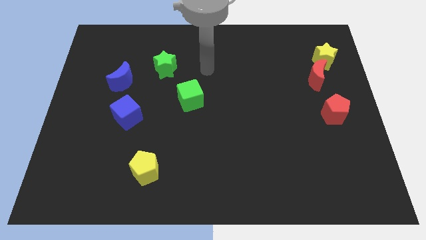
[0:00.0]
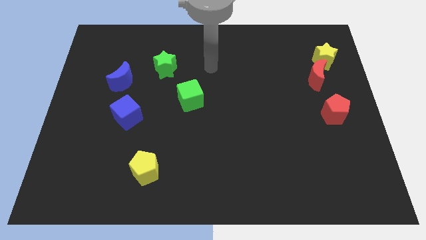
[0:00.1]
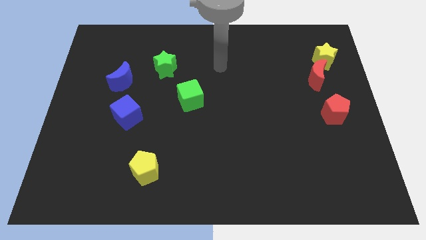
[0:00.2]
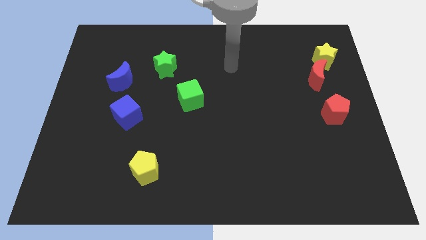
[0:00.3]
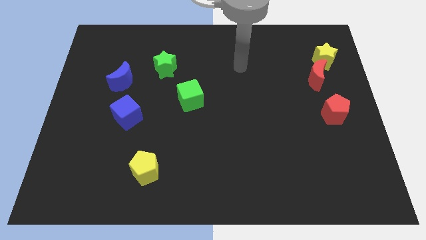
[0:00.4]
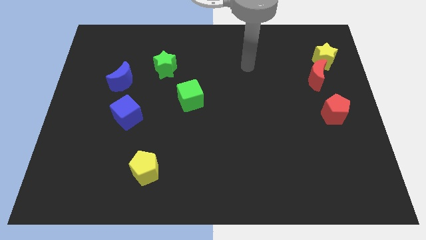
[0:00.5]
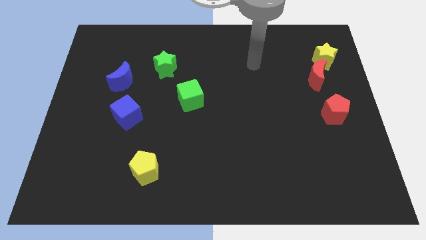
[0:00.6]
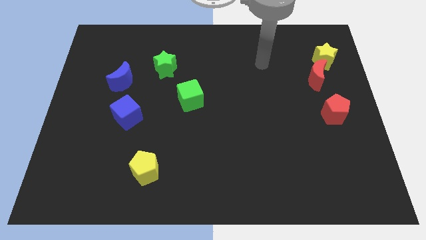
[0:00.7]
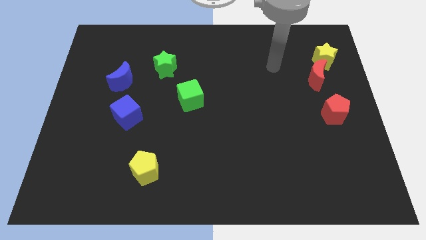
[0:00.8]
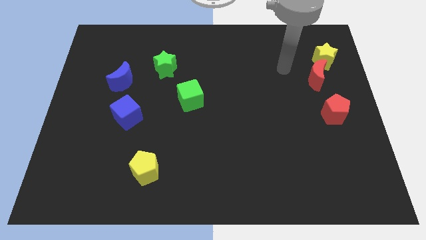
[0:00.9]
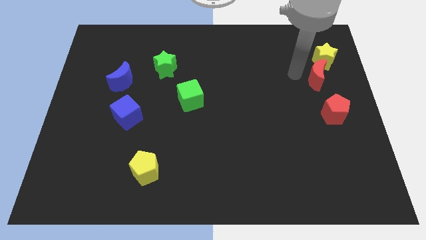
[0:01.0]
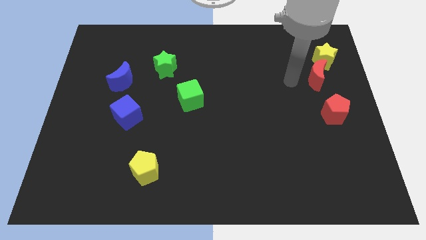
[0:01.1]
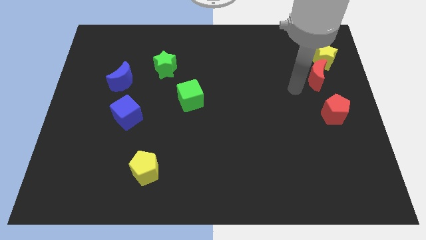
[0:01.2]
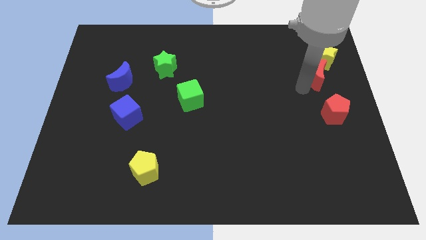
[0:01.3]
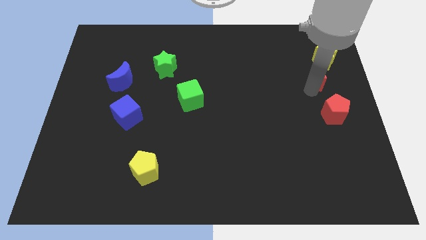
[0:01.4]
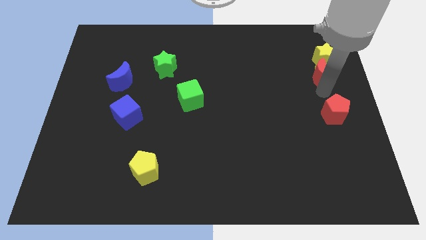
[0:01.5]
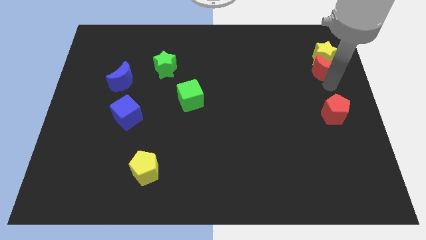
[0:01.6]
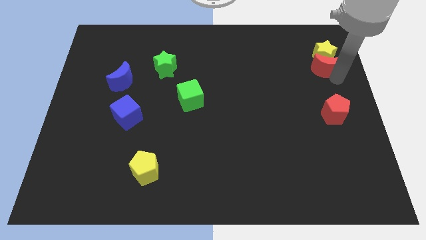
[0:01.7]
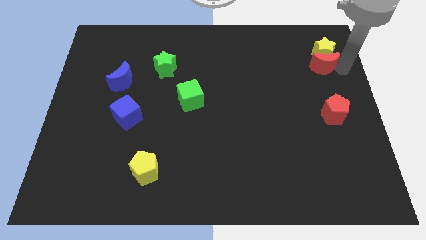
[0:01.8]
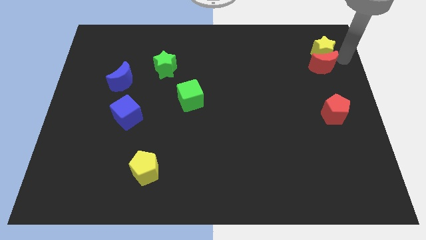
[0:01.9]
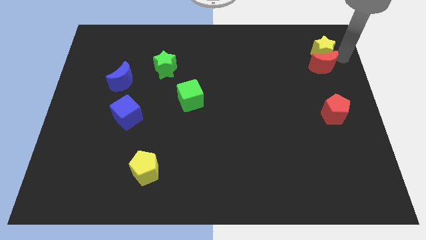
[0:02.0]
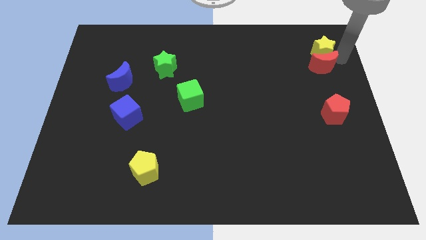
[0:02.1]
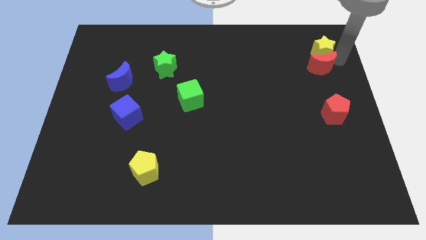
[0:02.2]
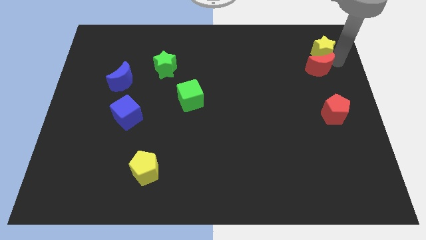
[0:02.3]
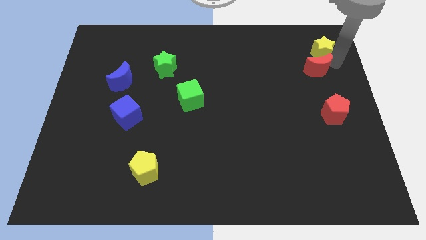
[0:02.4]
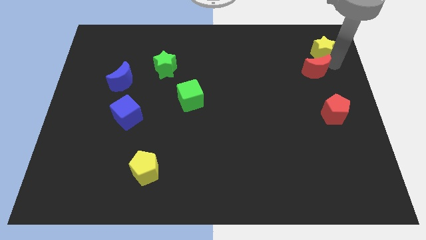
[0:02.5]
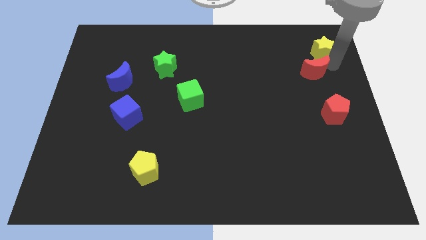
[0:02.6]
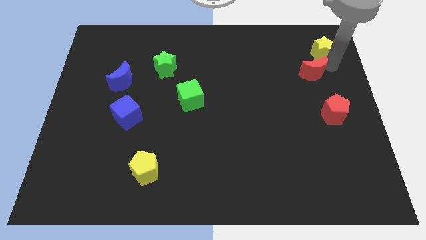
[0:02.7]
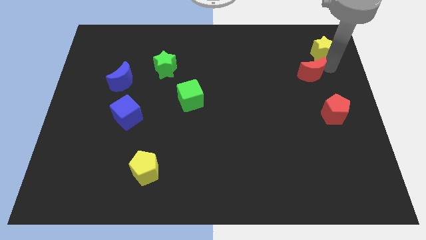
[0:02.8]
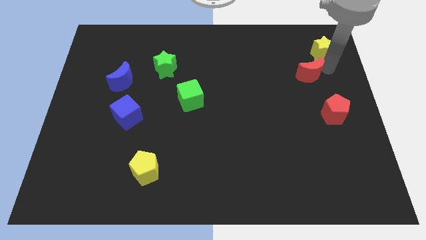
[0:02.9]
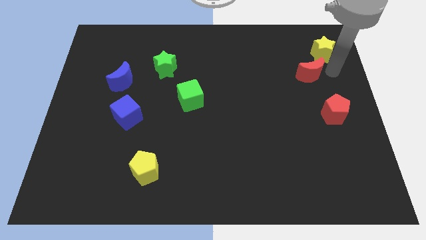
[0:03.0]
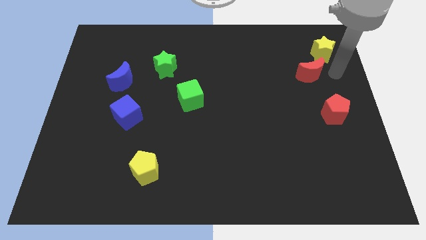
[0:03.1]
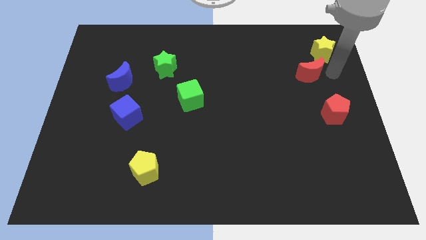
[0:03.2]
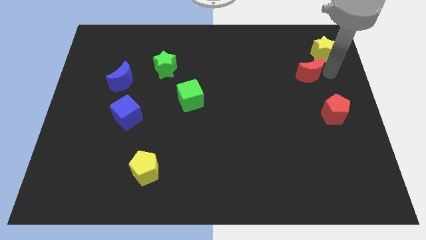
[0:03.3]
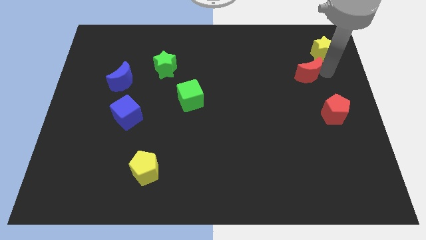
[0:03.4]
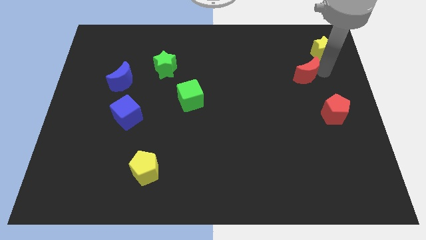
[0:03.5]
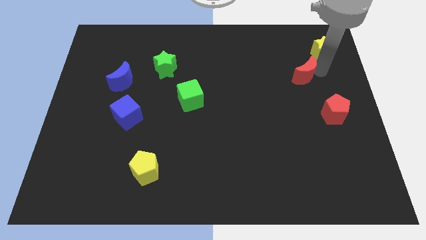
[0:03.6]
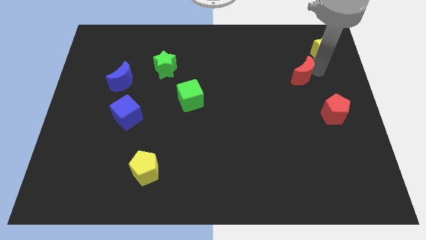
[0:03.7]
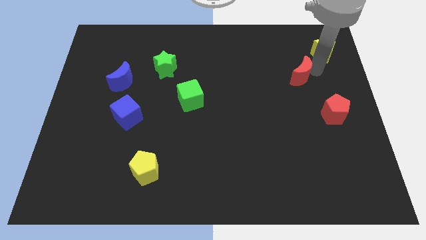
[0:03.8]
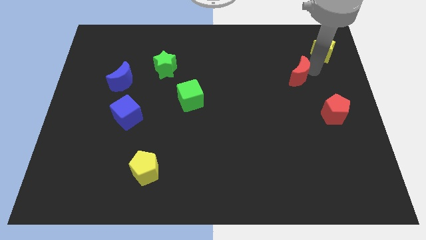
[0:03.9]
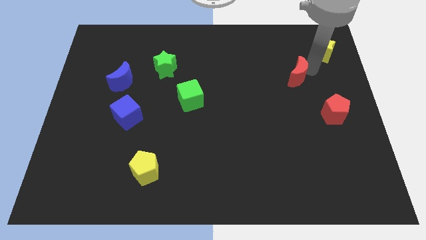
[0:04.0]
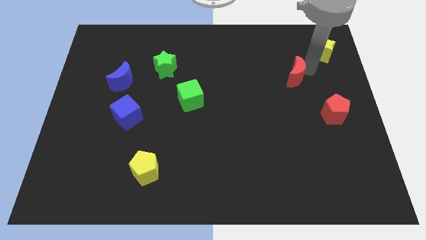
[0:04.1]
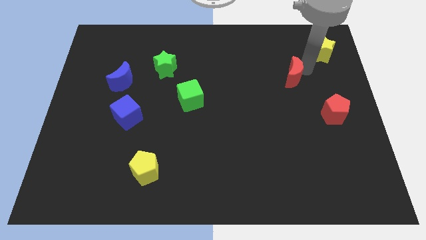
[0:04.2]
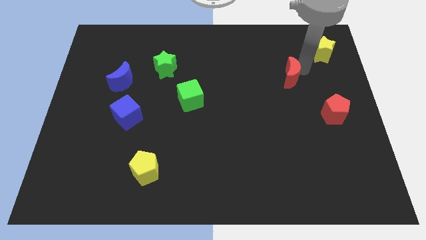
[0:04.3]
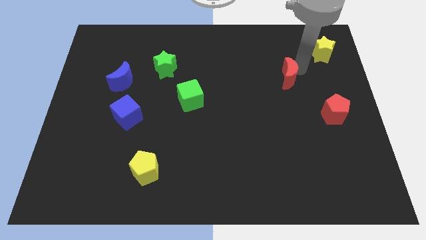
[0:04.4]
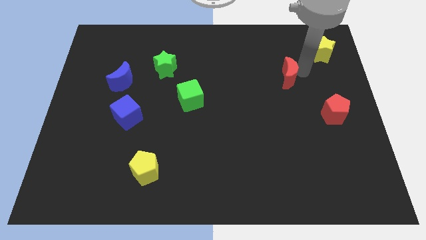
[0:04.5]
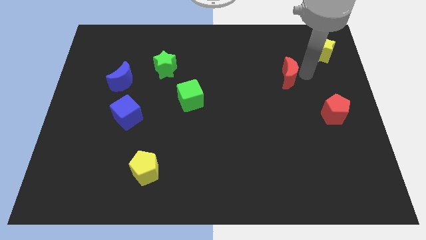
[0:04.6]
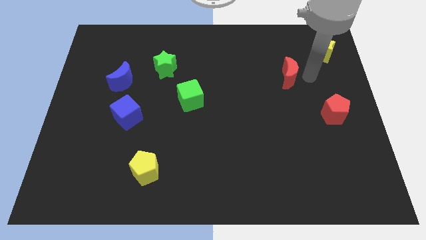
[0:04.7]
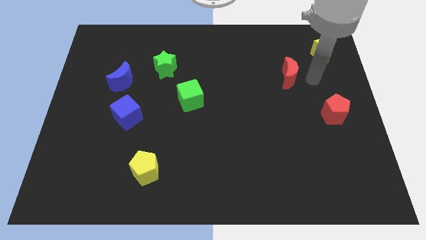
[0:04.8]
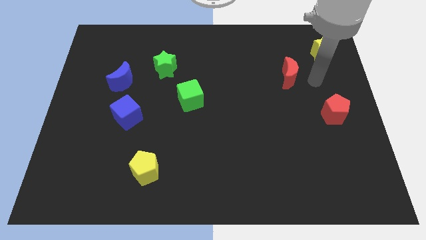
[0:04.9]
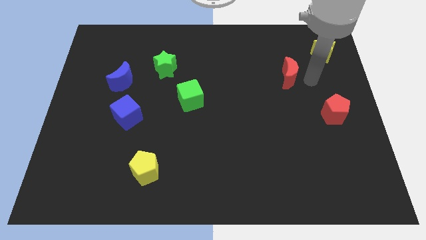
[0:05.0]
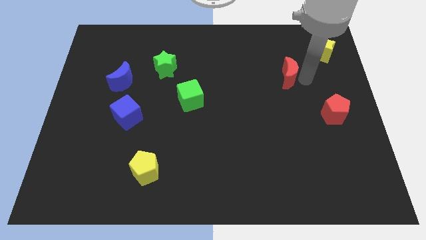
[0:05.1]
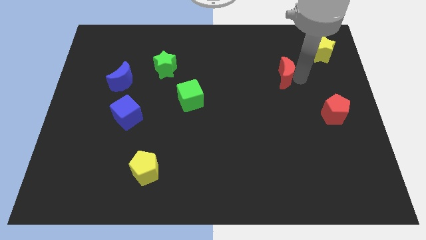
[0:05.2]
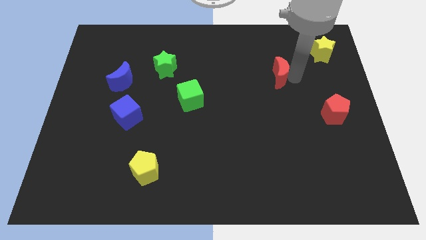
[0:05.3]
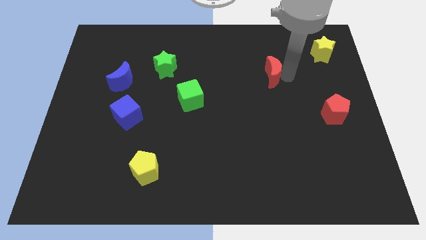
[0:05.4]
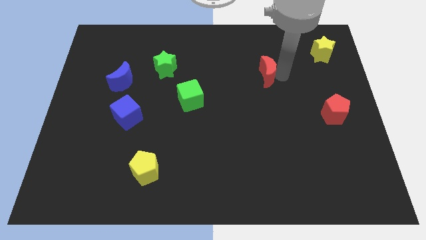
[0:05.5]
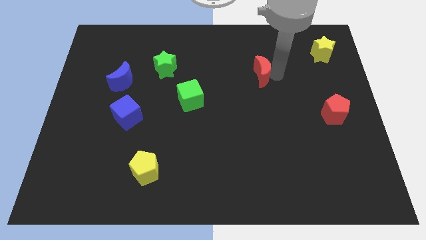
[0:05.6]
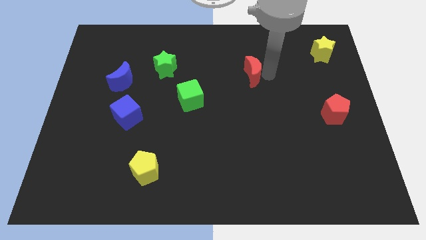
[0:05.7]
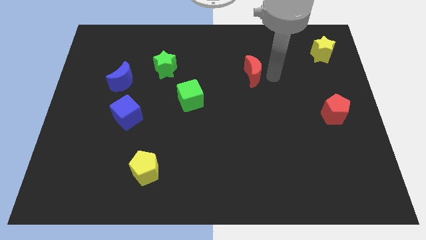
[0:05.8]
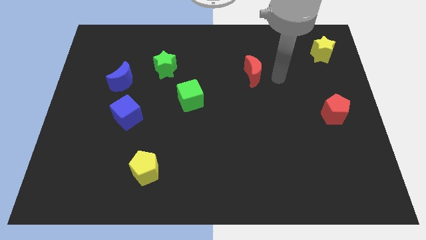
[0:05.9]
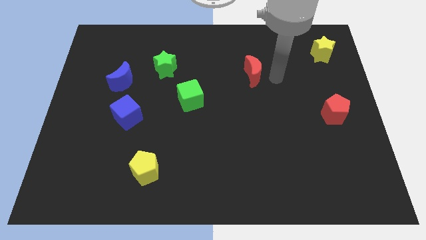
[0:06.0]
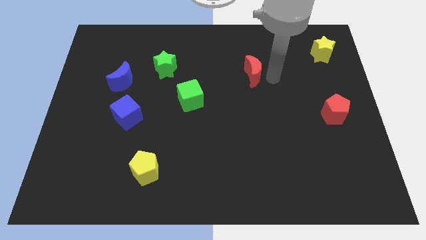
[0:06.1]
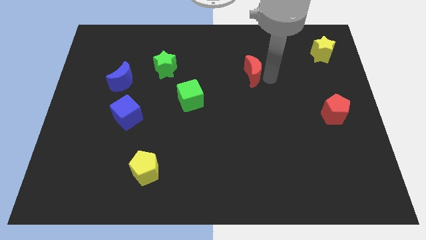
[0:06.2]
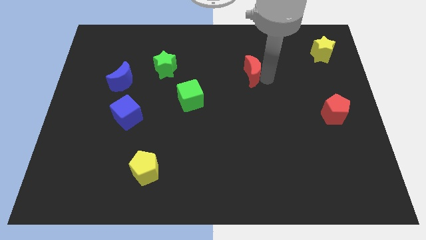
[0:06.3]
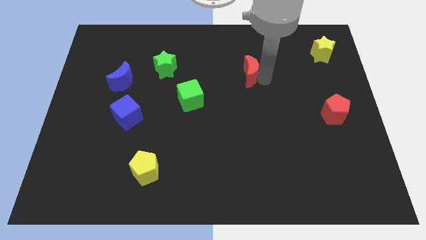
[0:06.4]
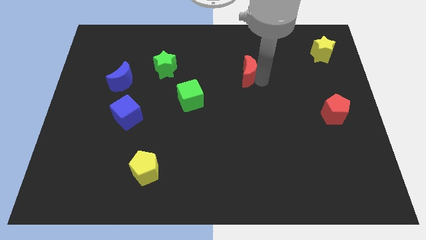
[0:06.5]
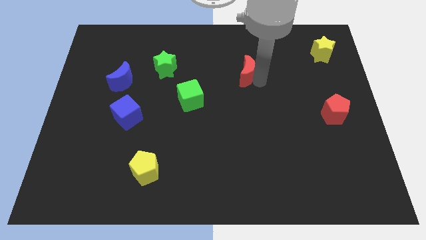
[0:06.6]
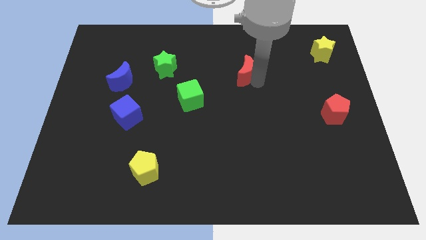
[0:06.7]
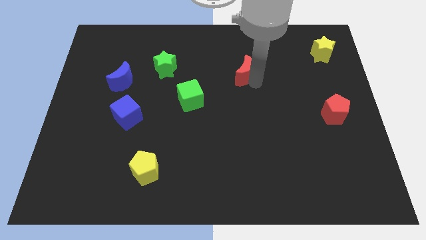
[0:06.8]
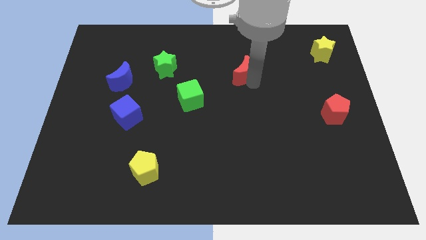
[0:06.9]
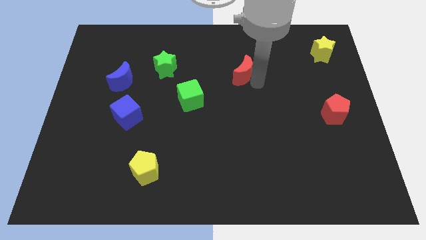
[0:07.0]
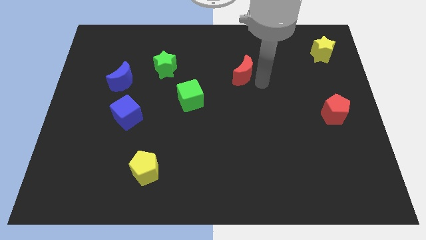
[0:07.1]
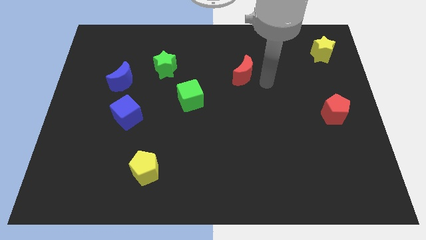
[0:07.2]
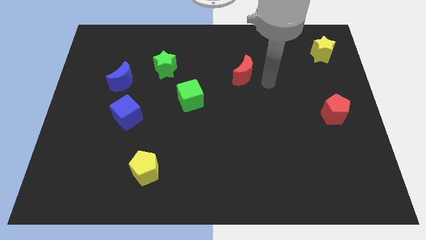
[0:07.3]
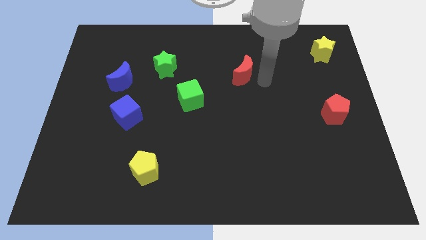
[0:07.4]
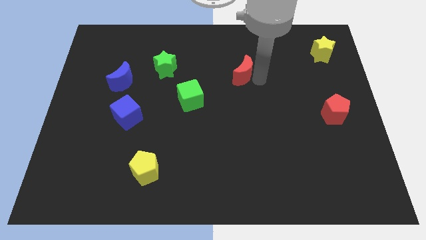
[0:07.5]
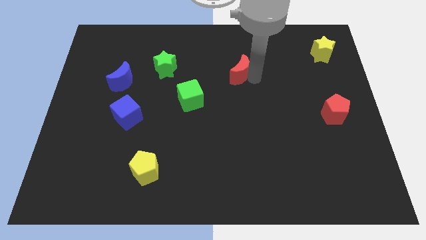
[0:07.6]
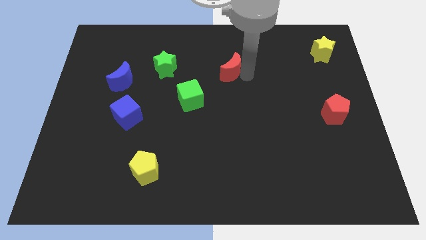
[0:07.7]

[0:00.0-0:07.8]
move the red moon left

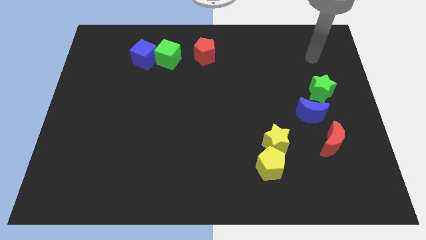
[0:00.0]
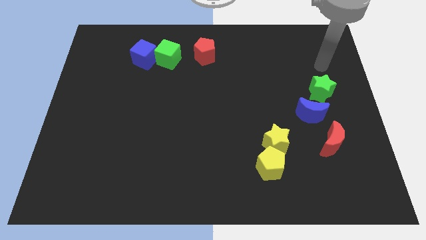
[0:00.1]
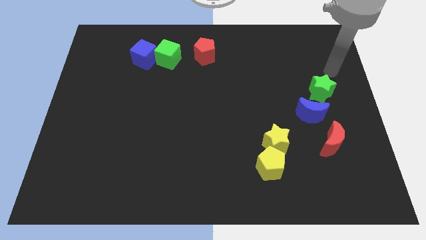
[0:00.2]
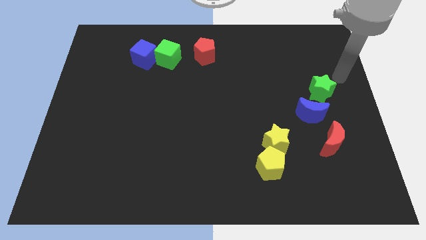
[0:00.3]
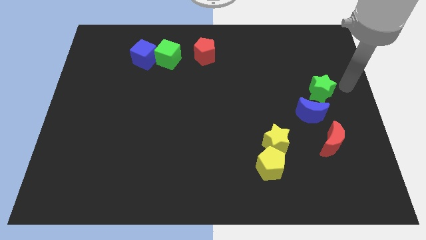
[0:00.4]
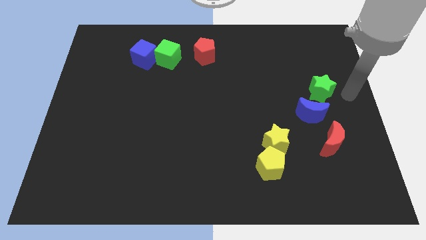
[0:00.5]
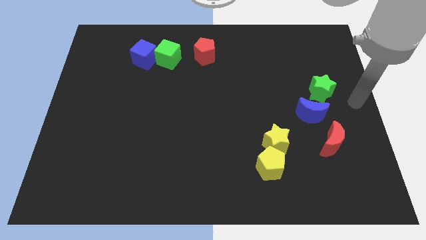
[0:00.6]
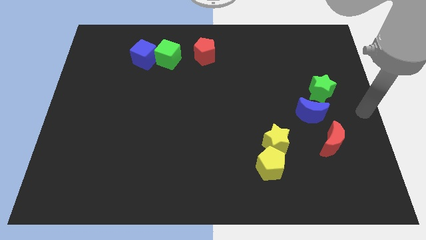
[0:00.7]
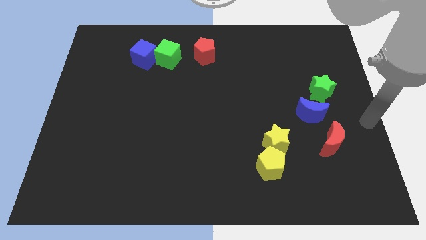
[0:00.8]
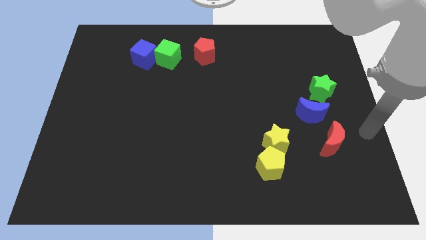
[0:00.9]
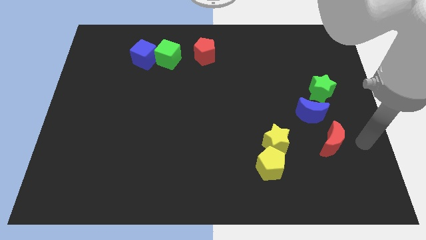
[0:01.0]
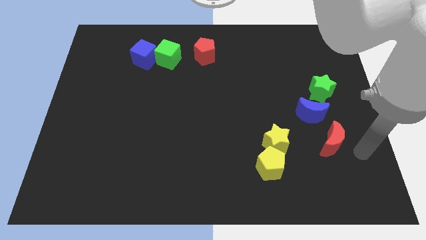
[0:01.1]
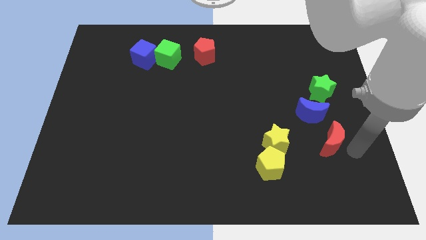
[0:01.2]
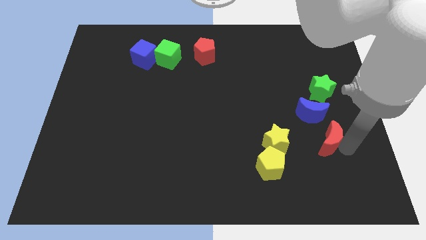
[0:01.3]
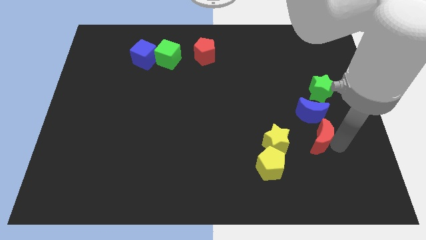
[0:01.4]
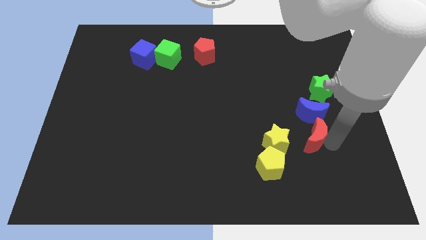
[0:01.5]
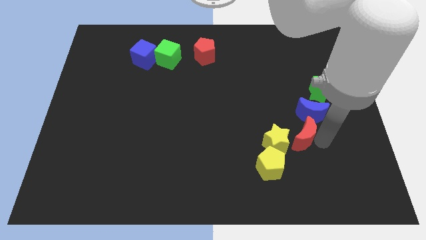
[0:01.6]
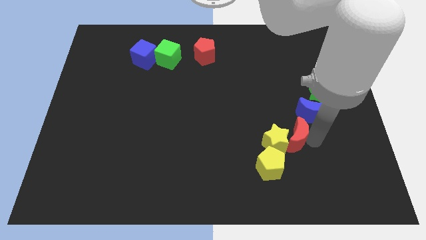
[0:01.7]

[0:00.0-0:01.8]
slide the red moon left a bit
